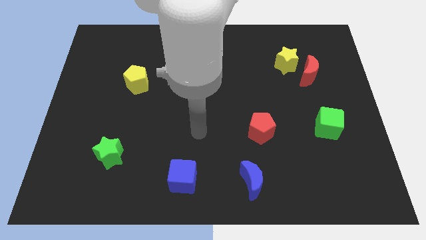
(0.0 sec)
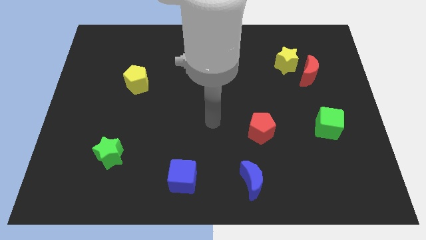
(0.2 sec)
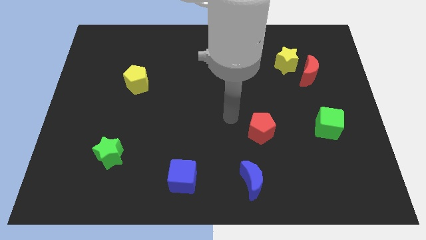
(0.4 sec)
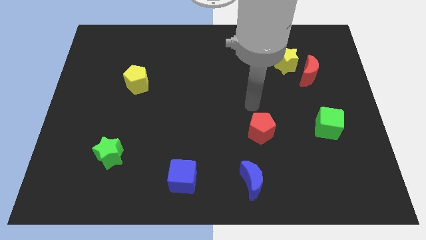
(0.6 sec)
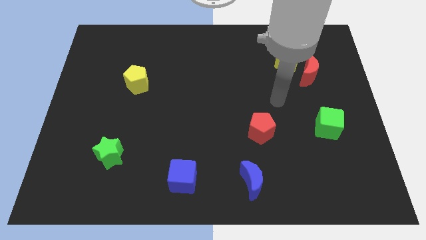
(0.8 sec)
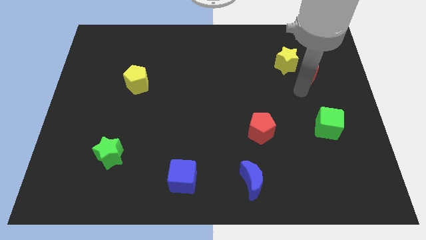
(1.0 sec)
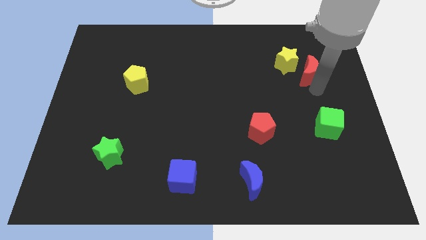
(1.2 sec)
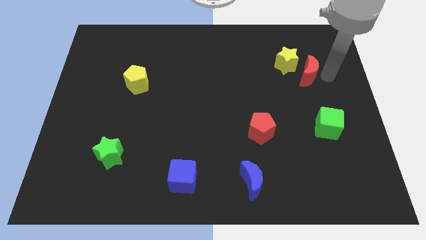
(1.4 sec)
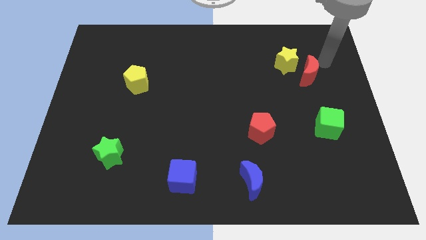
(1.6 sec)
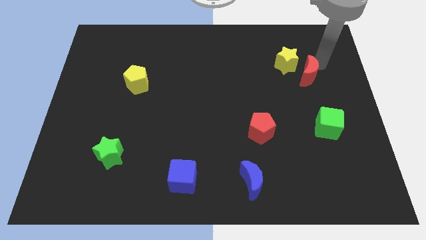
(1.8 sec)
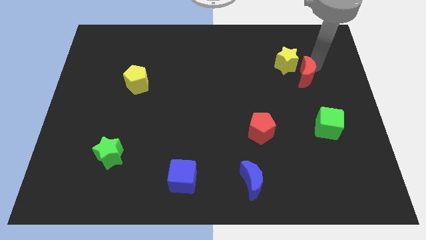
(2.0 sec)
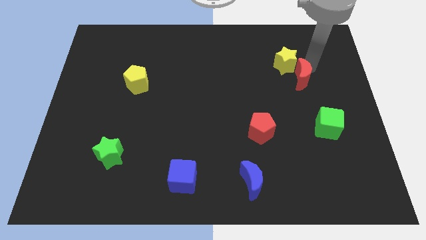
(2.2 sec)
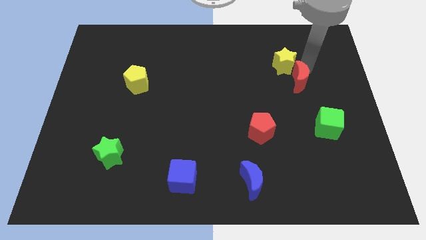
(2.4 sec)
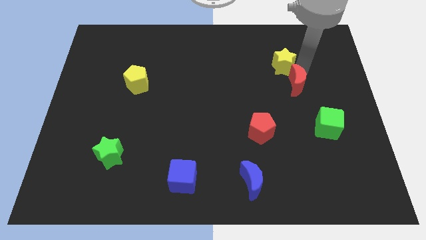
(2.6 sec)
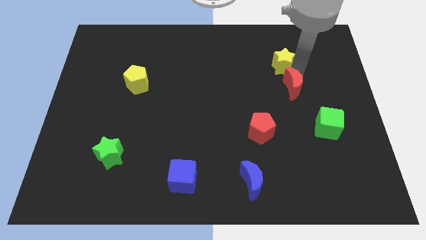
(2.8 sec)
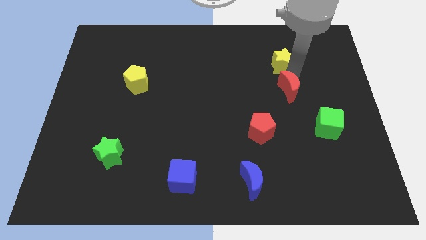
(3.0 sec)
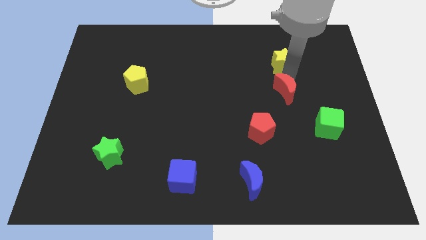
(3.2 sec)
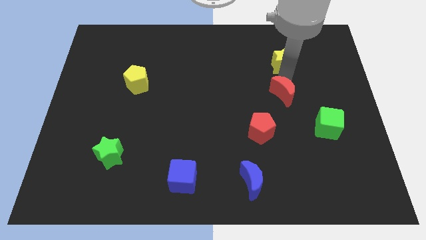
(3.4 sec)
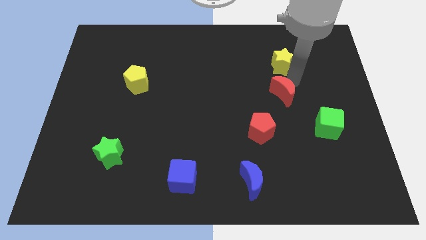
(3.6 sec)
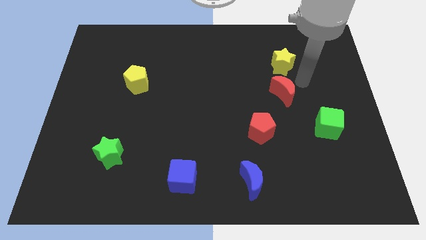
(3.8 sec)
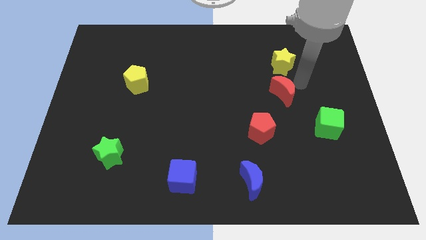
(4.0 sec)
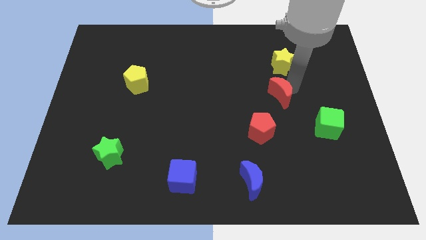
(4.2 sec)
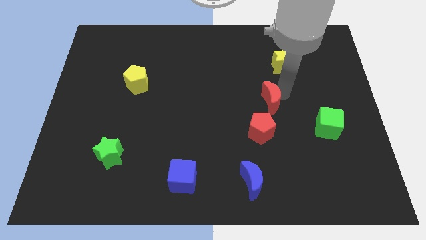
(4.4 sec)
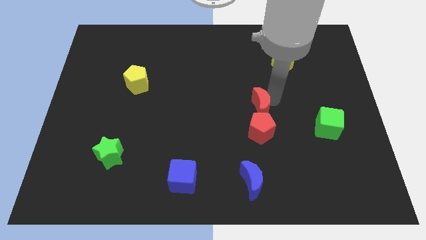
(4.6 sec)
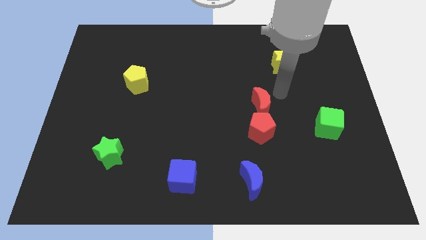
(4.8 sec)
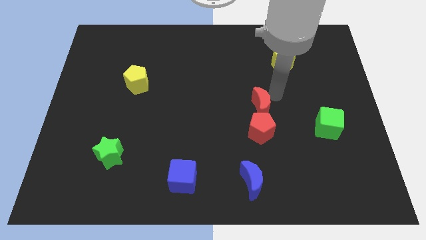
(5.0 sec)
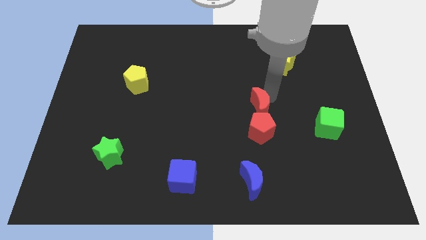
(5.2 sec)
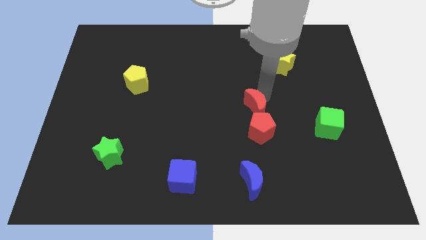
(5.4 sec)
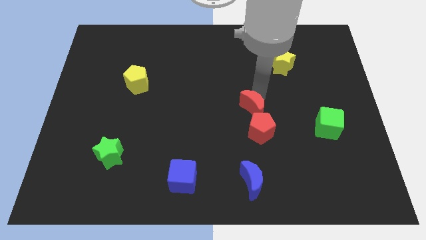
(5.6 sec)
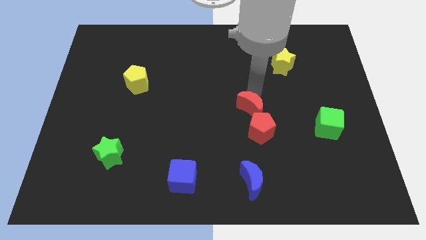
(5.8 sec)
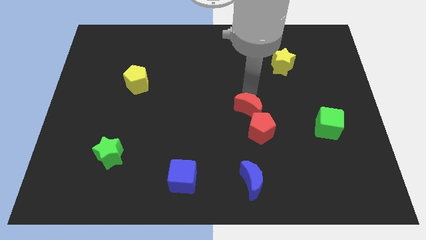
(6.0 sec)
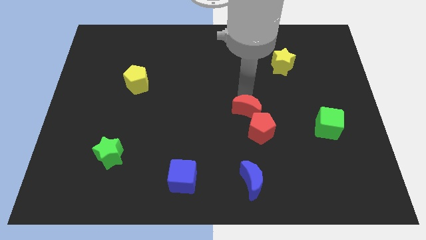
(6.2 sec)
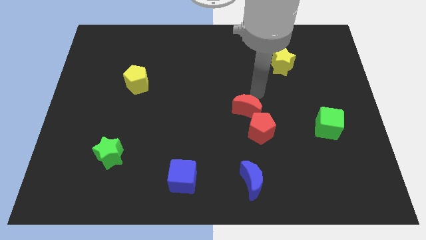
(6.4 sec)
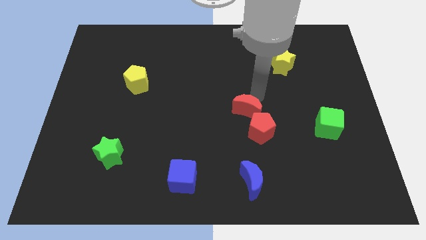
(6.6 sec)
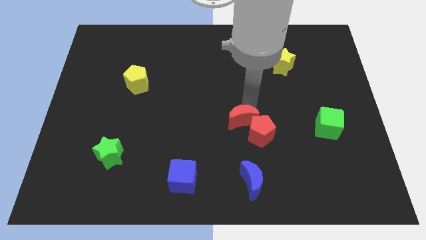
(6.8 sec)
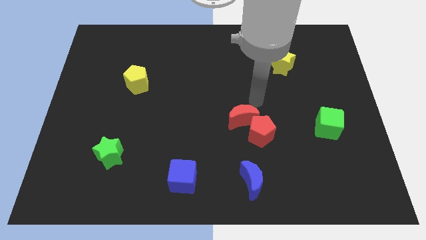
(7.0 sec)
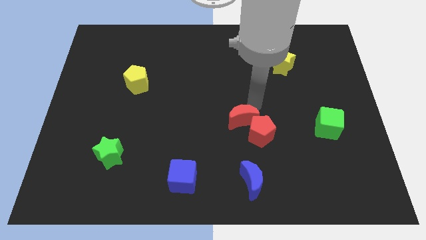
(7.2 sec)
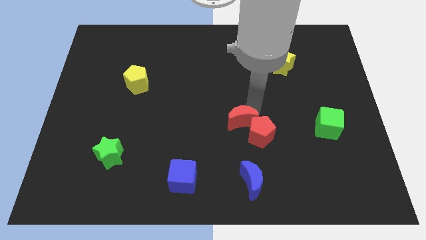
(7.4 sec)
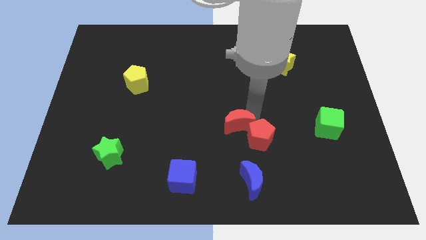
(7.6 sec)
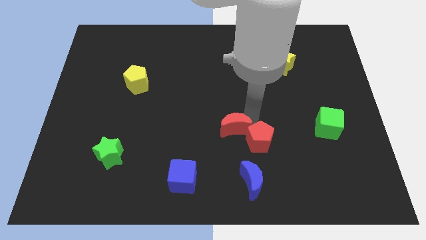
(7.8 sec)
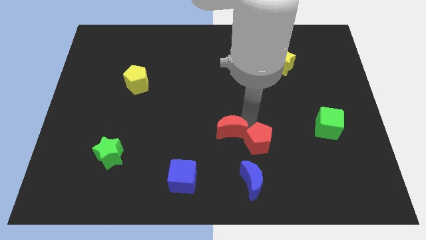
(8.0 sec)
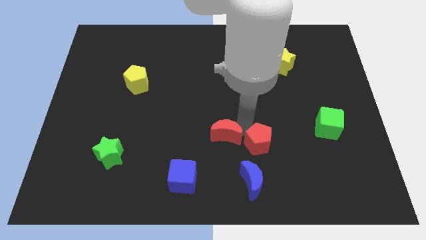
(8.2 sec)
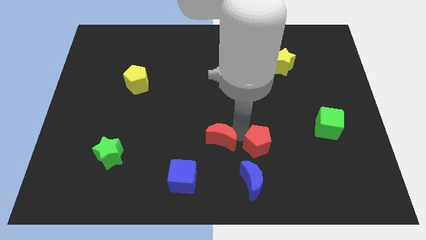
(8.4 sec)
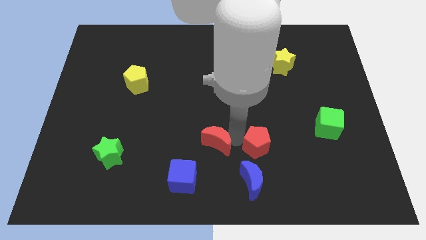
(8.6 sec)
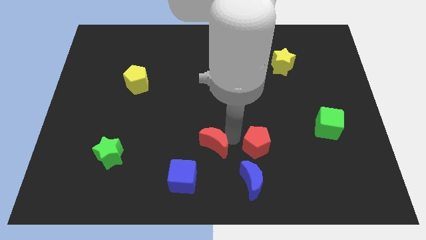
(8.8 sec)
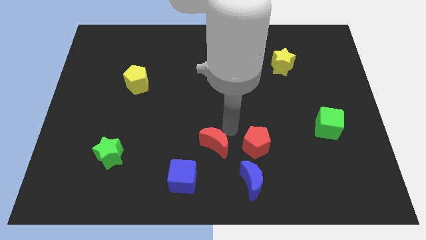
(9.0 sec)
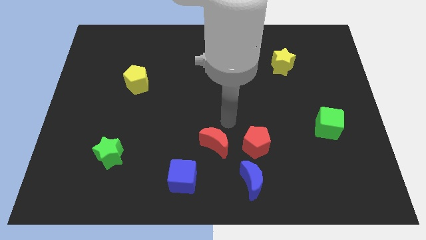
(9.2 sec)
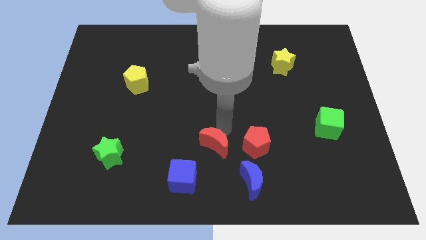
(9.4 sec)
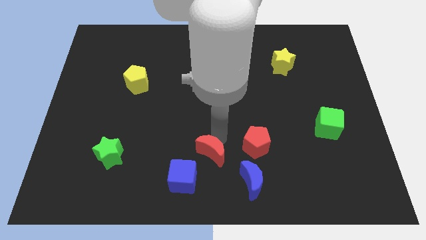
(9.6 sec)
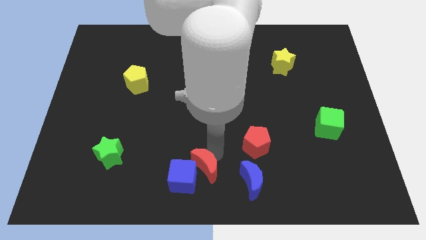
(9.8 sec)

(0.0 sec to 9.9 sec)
push the red moon close to the blue cube

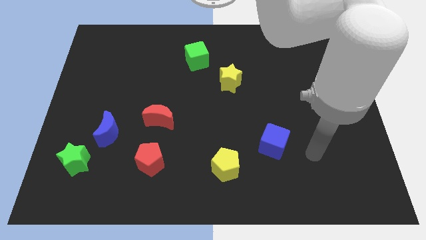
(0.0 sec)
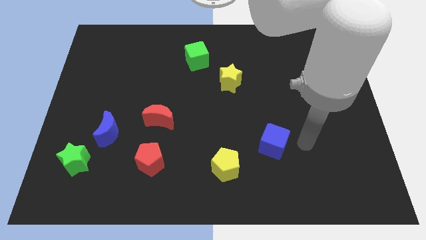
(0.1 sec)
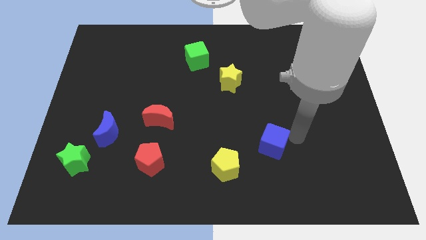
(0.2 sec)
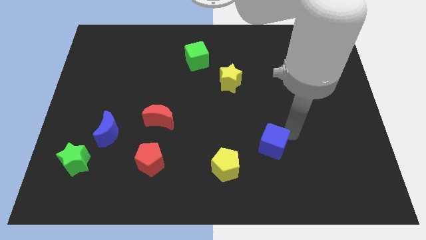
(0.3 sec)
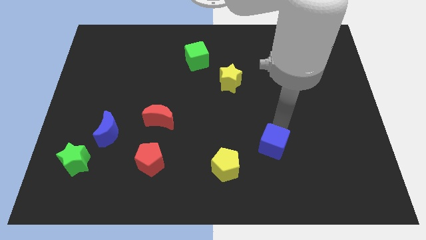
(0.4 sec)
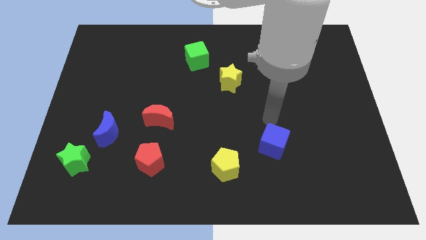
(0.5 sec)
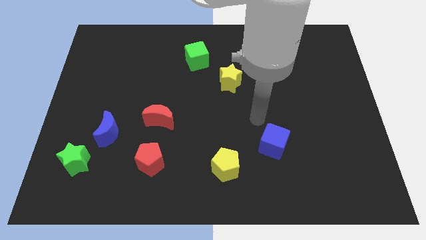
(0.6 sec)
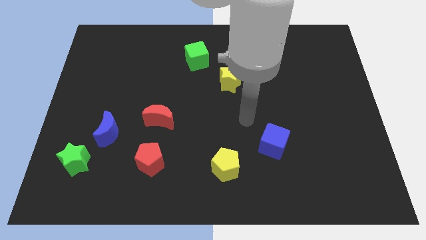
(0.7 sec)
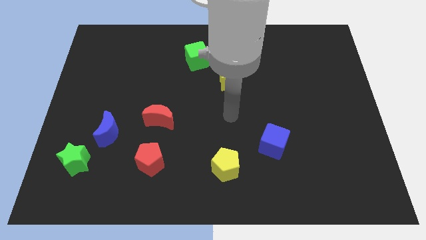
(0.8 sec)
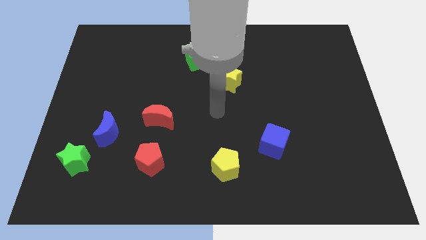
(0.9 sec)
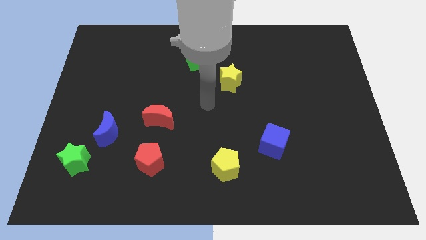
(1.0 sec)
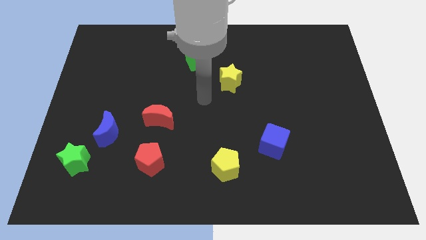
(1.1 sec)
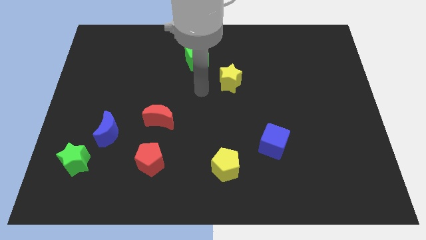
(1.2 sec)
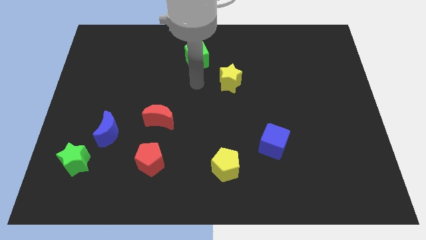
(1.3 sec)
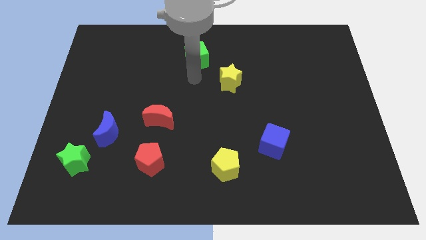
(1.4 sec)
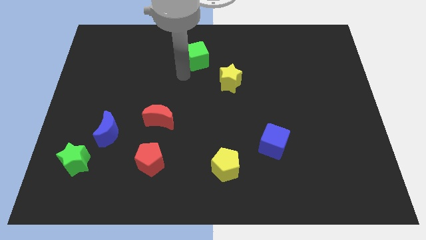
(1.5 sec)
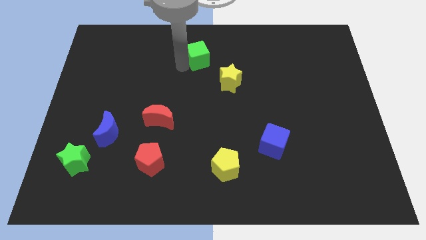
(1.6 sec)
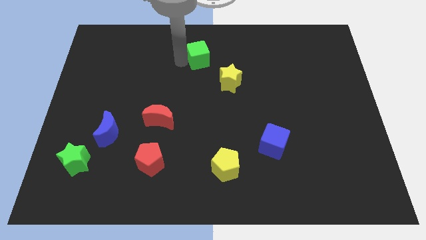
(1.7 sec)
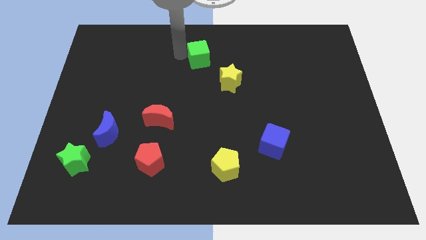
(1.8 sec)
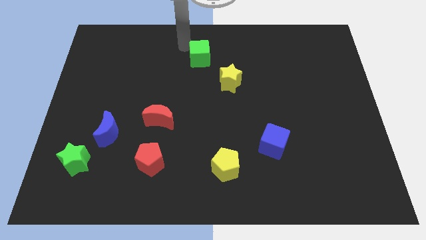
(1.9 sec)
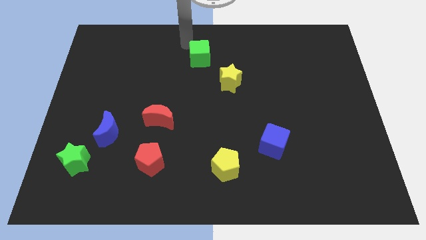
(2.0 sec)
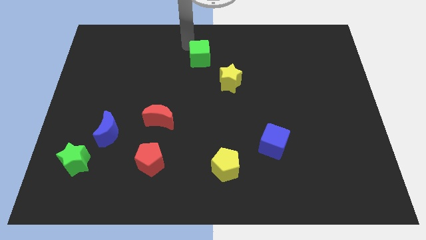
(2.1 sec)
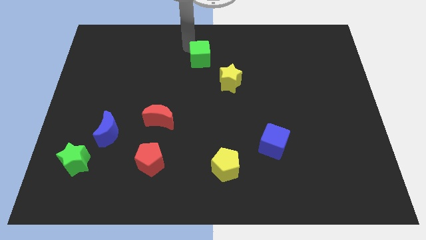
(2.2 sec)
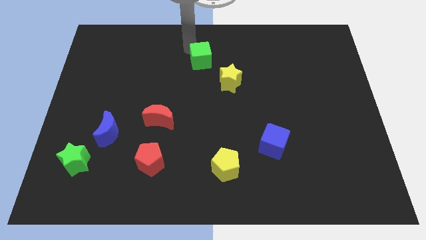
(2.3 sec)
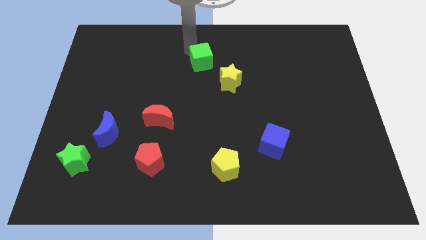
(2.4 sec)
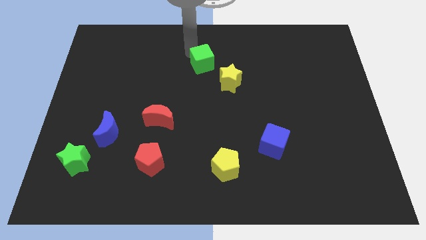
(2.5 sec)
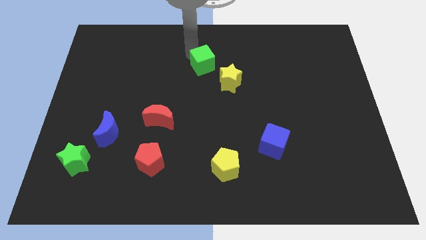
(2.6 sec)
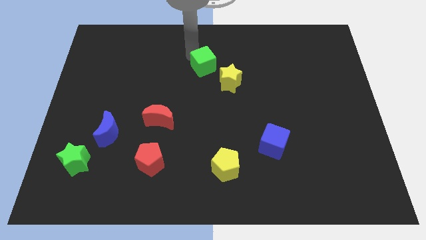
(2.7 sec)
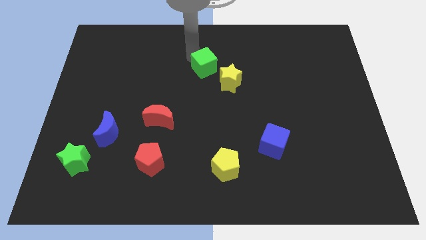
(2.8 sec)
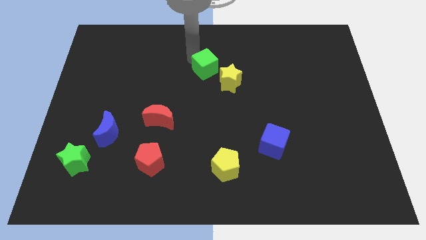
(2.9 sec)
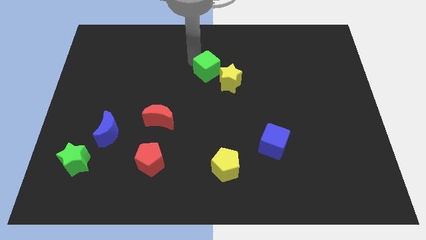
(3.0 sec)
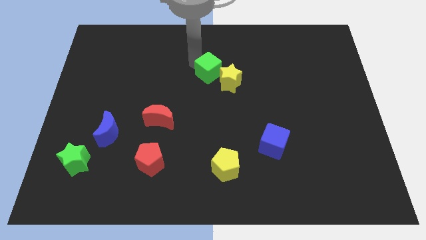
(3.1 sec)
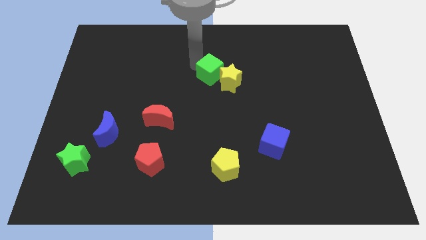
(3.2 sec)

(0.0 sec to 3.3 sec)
put the green cube towards the yellow star
